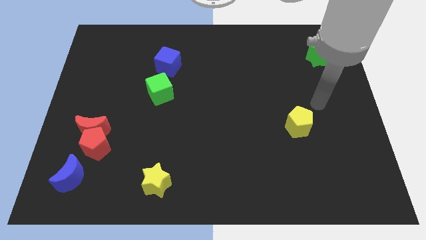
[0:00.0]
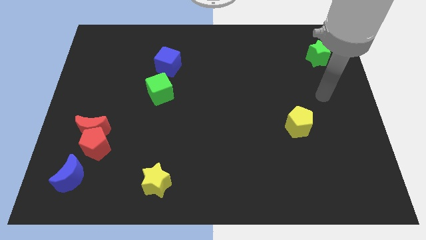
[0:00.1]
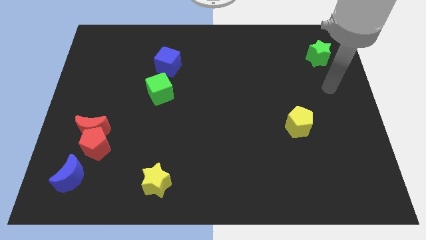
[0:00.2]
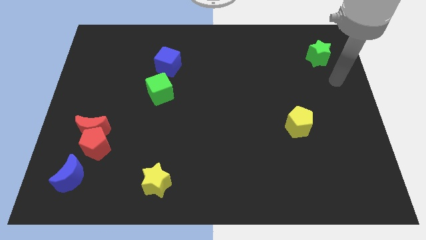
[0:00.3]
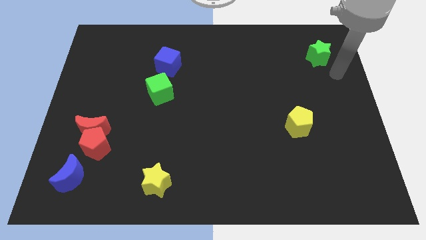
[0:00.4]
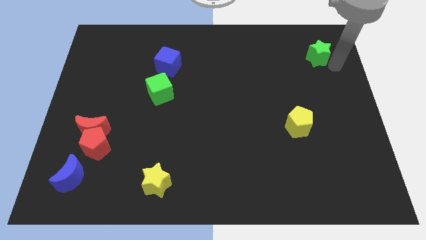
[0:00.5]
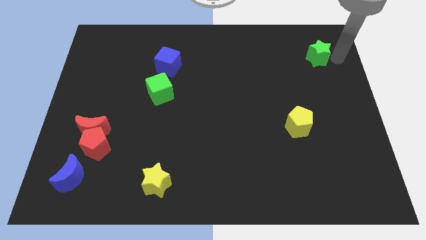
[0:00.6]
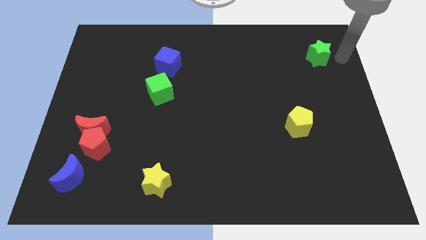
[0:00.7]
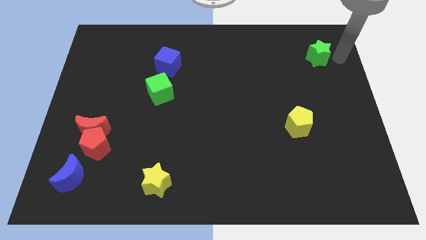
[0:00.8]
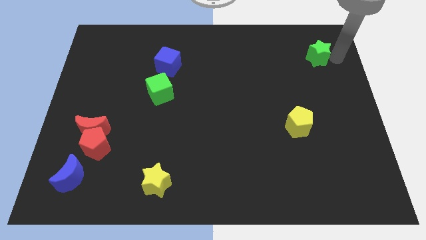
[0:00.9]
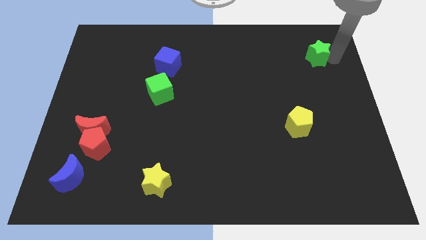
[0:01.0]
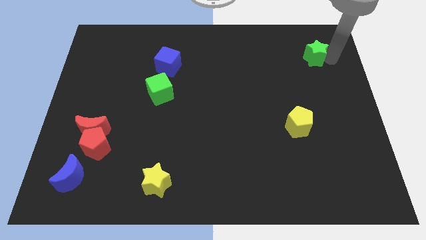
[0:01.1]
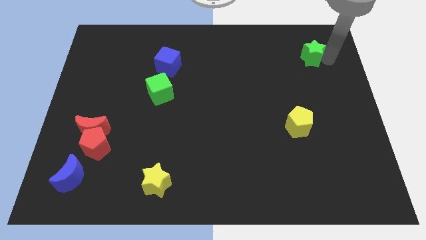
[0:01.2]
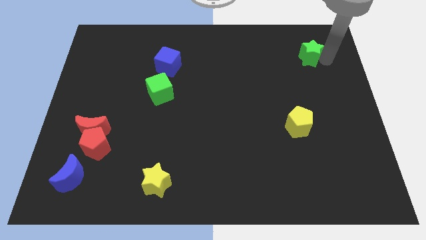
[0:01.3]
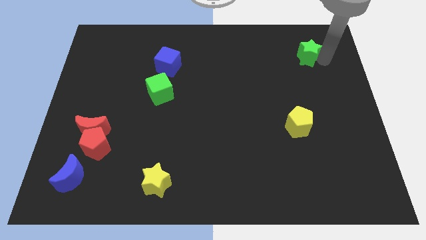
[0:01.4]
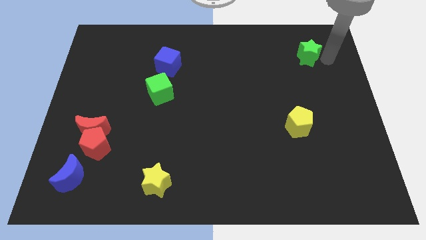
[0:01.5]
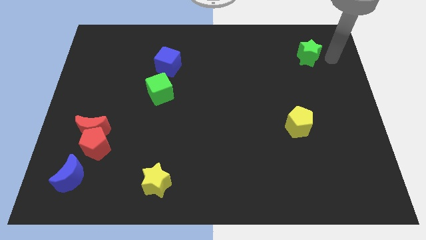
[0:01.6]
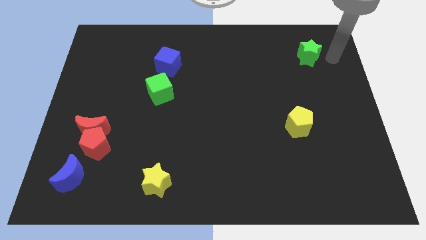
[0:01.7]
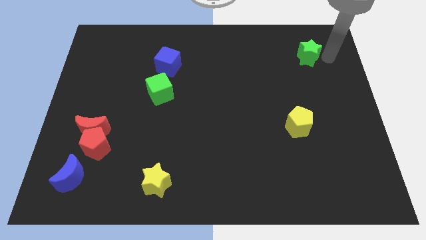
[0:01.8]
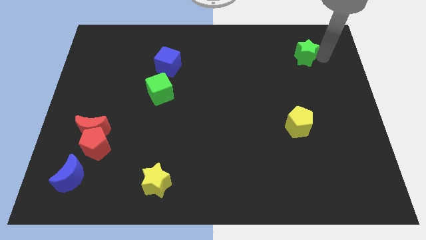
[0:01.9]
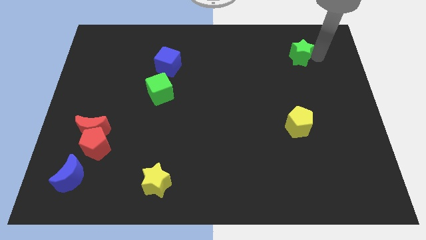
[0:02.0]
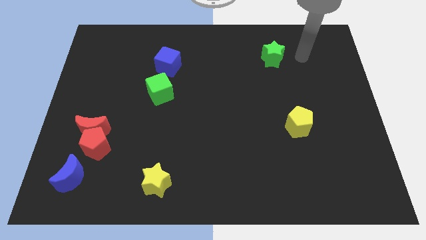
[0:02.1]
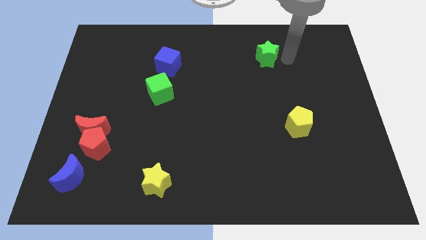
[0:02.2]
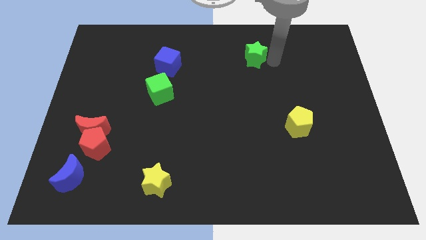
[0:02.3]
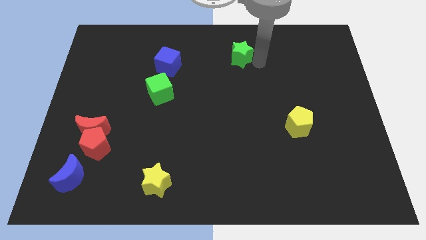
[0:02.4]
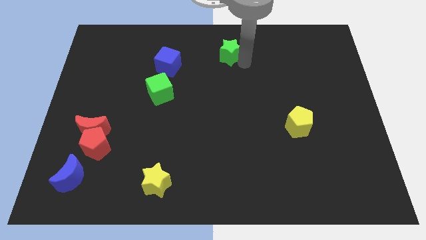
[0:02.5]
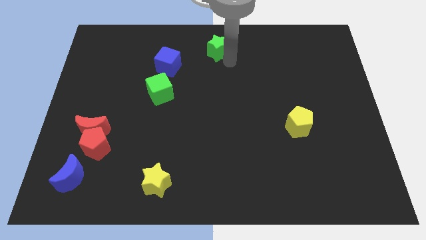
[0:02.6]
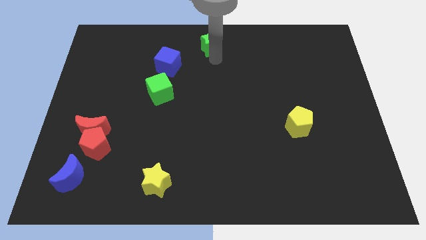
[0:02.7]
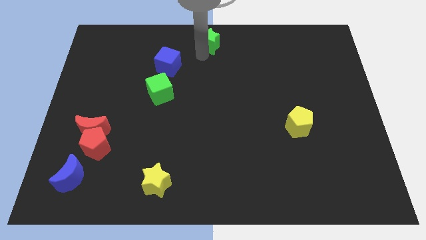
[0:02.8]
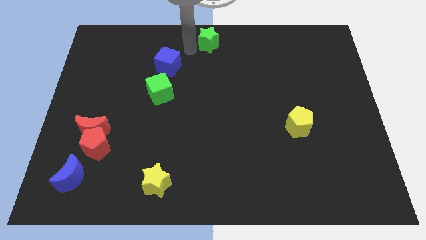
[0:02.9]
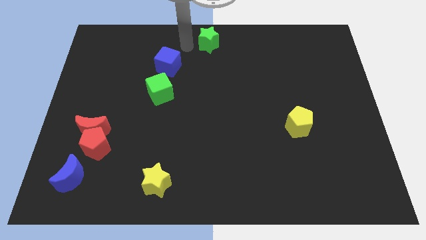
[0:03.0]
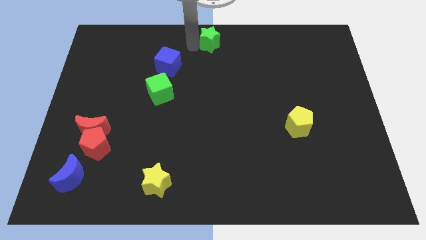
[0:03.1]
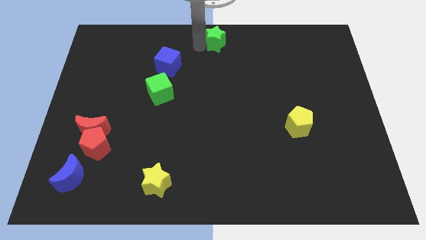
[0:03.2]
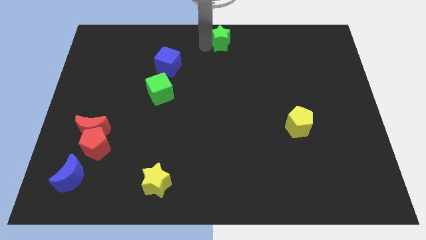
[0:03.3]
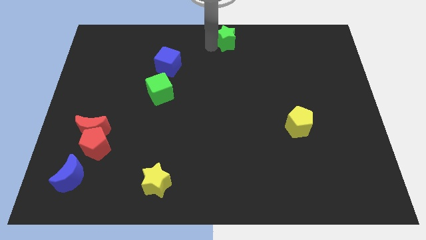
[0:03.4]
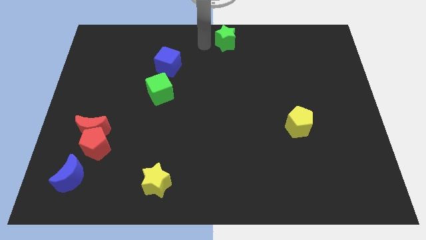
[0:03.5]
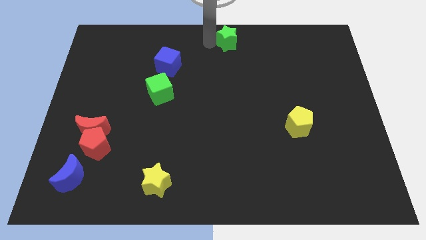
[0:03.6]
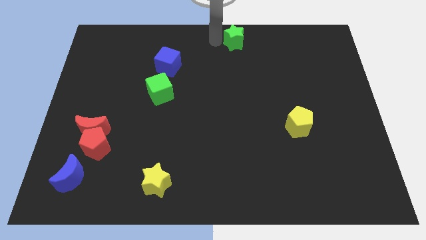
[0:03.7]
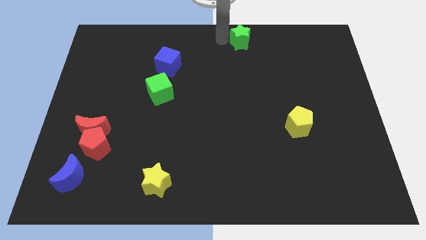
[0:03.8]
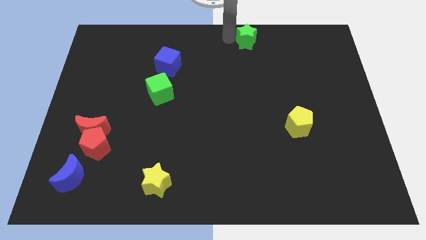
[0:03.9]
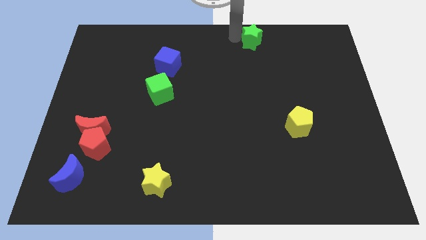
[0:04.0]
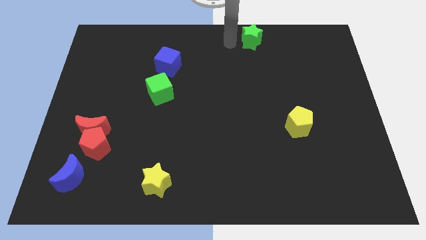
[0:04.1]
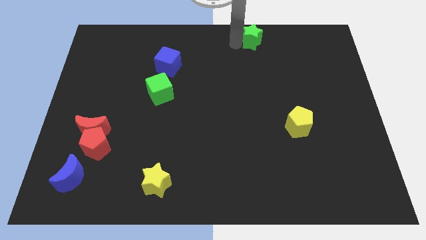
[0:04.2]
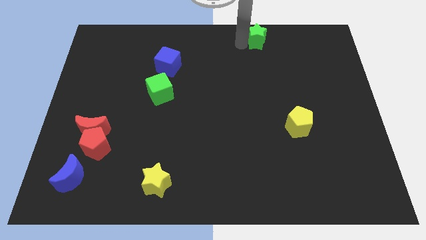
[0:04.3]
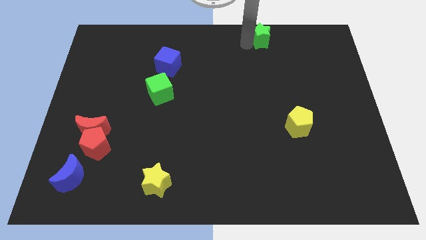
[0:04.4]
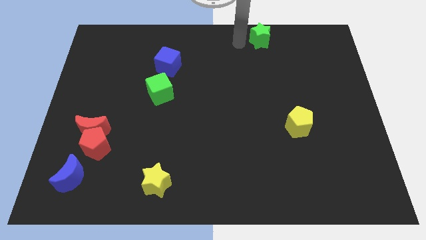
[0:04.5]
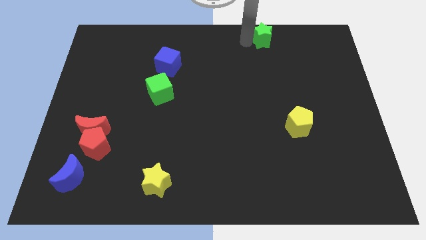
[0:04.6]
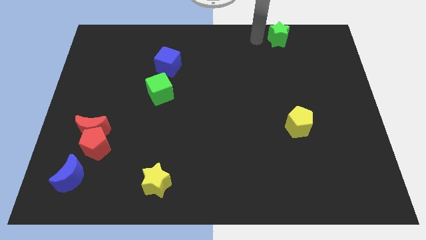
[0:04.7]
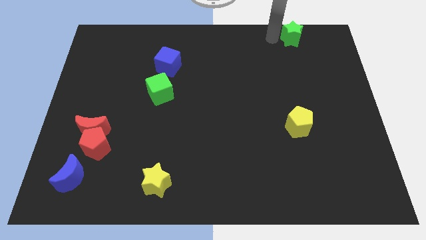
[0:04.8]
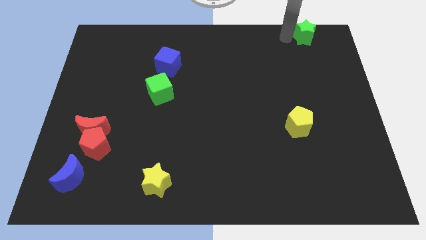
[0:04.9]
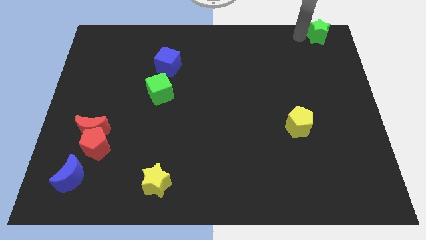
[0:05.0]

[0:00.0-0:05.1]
slide the green star to the top right of the board

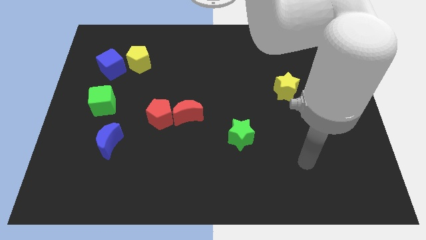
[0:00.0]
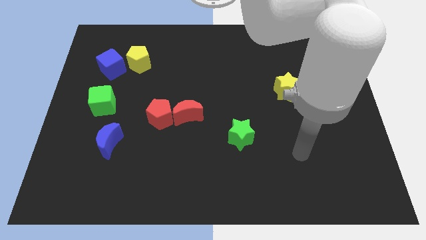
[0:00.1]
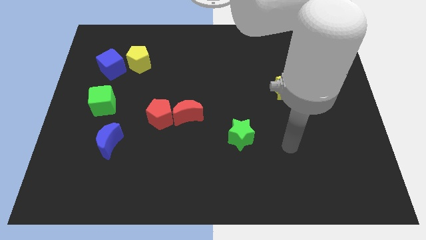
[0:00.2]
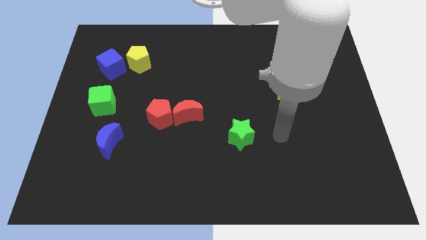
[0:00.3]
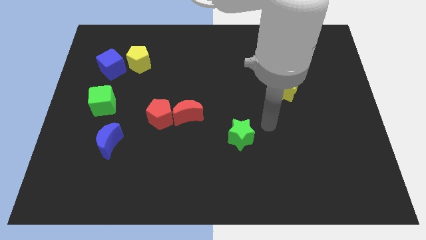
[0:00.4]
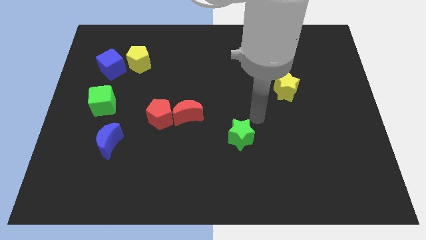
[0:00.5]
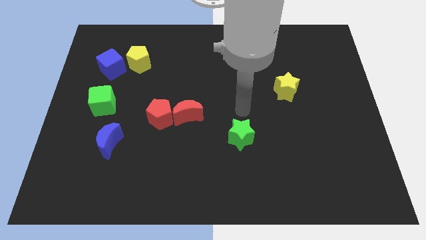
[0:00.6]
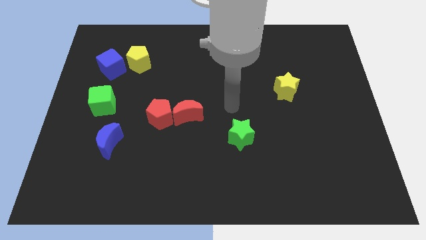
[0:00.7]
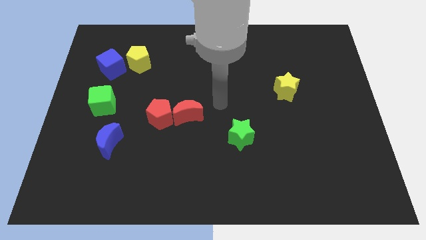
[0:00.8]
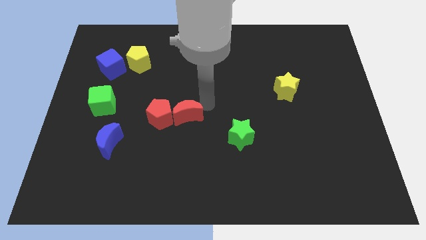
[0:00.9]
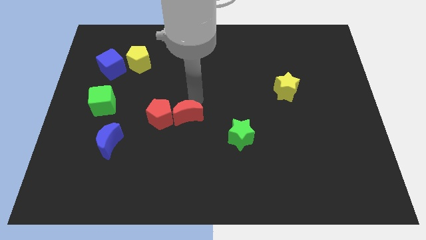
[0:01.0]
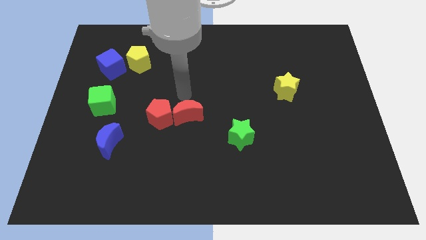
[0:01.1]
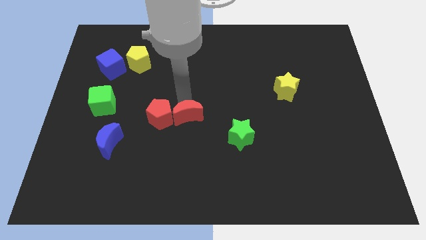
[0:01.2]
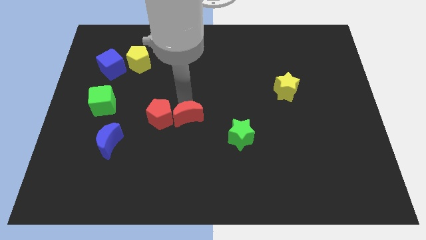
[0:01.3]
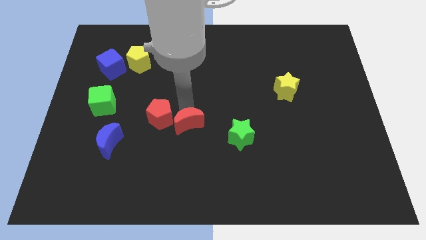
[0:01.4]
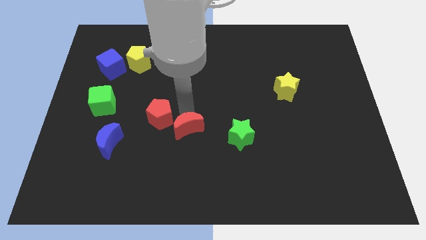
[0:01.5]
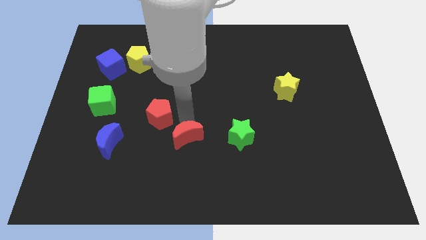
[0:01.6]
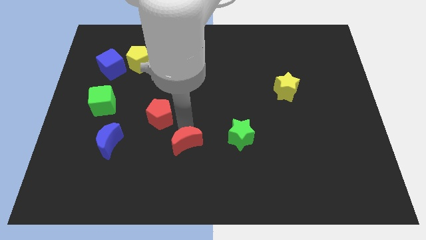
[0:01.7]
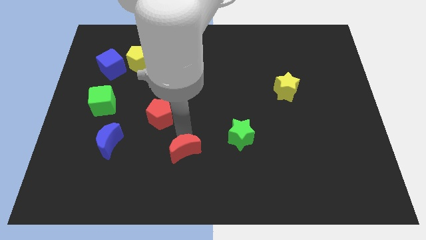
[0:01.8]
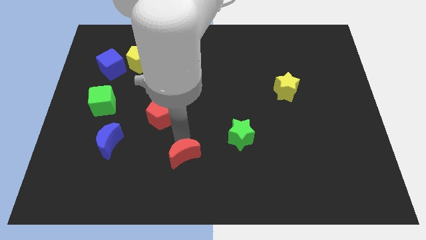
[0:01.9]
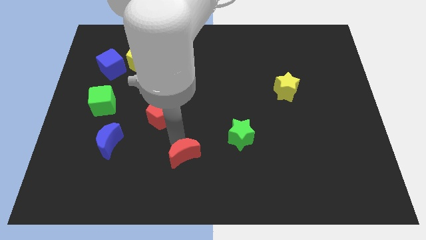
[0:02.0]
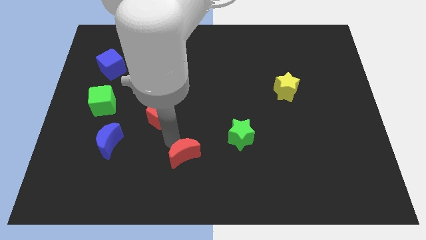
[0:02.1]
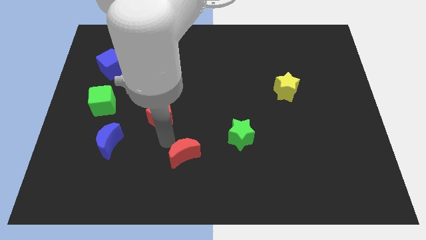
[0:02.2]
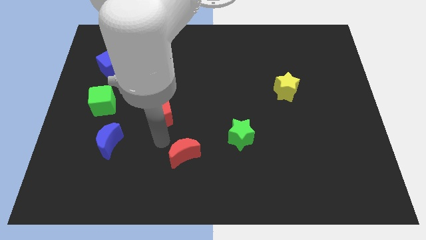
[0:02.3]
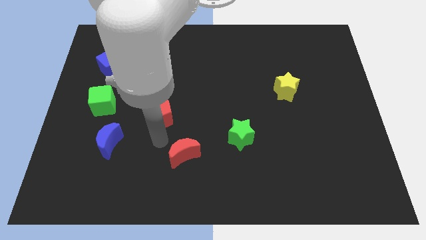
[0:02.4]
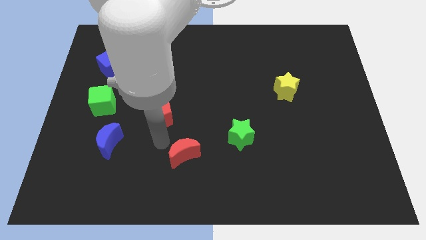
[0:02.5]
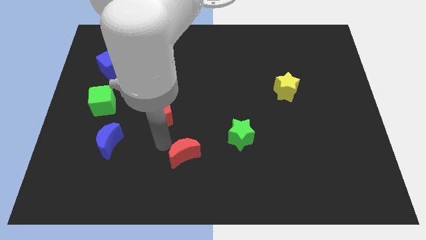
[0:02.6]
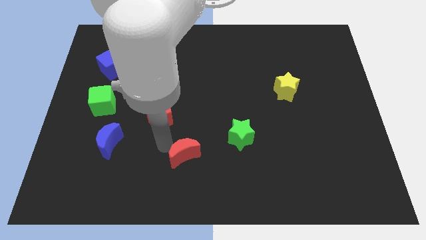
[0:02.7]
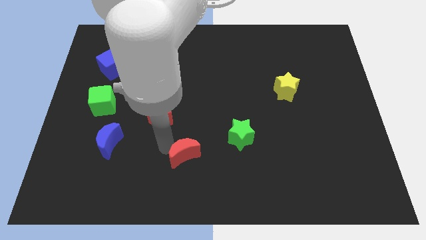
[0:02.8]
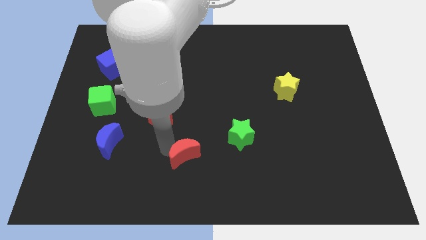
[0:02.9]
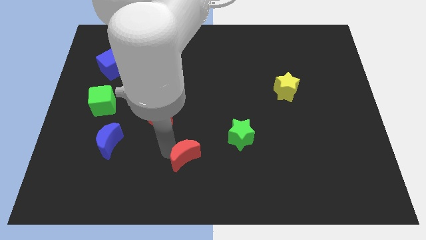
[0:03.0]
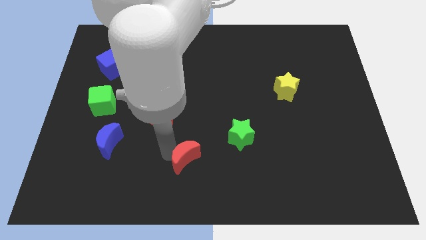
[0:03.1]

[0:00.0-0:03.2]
put the red moon to the bottom
